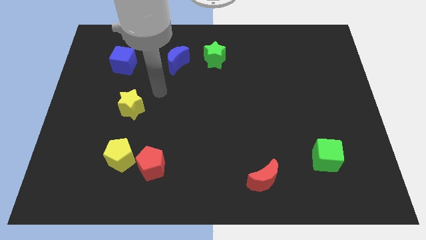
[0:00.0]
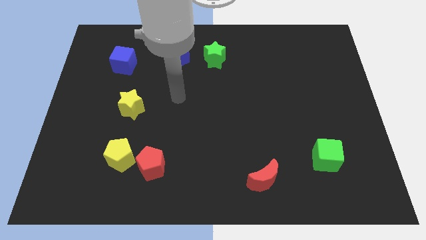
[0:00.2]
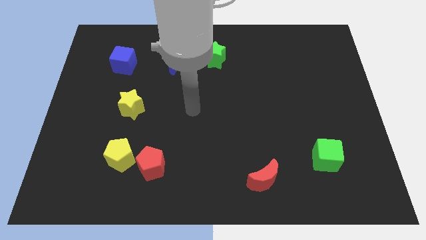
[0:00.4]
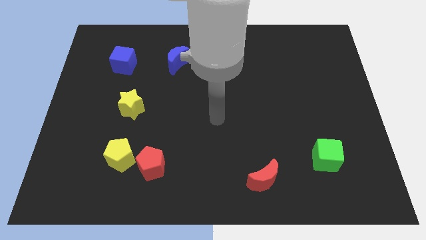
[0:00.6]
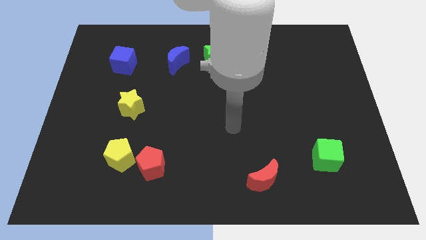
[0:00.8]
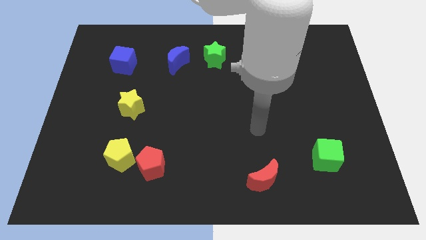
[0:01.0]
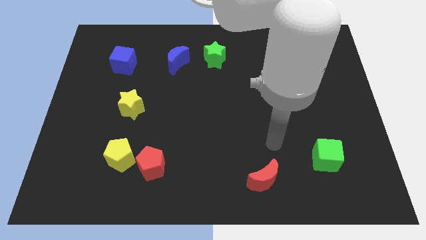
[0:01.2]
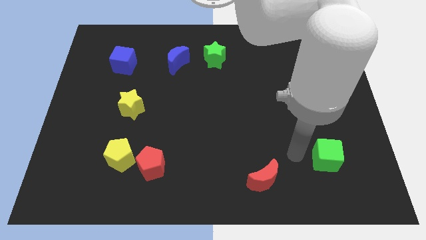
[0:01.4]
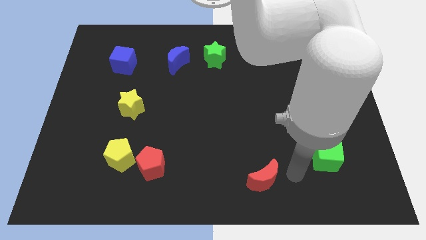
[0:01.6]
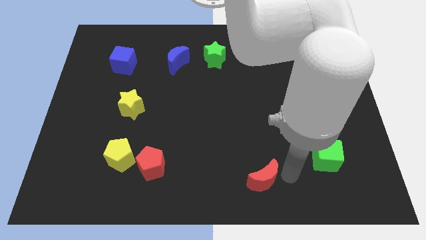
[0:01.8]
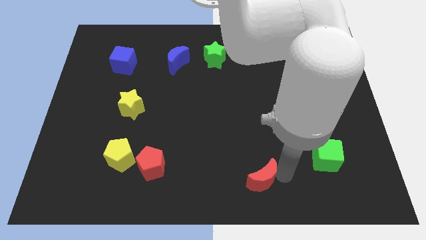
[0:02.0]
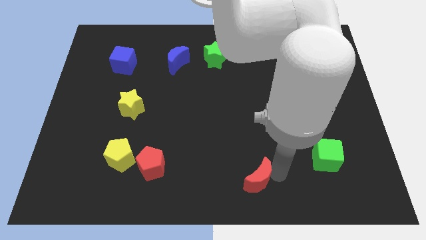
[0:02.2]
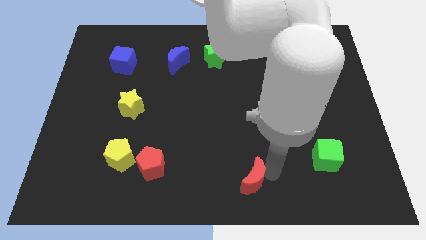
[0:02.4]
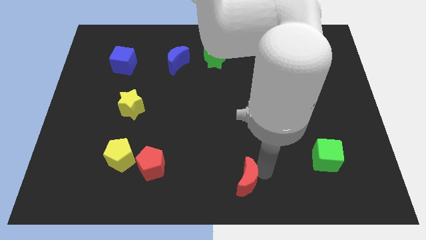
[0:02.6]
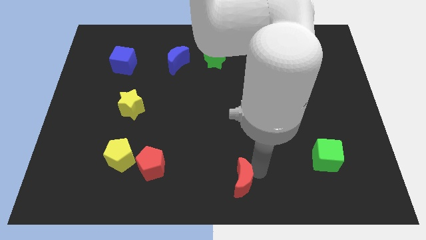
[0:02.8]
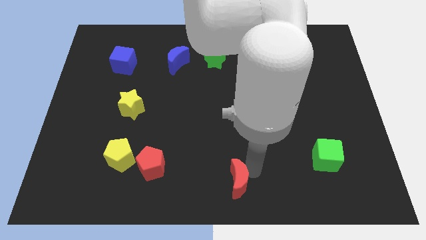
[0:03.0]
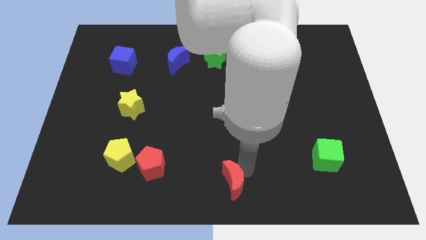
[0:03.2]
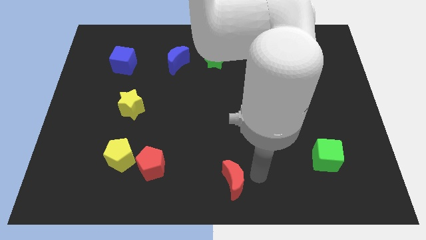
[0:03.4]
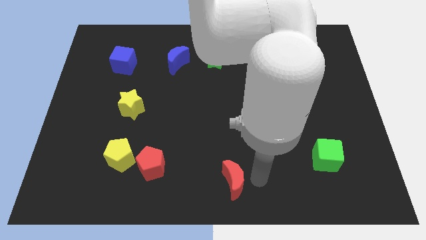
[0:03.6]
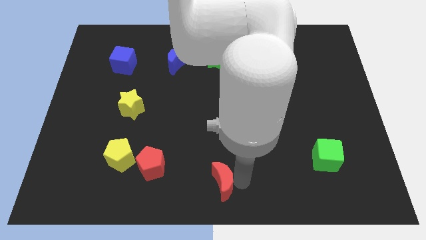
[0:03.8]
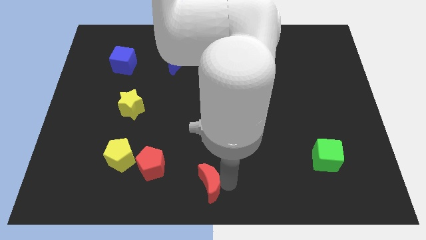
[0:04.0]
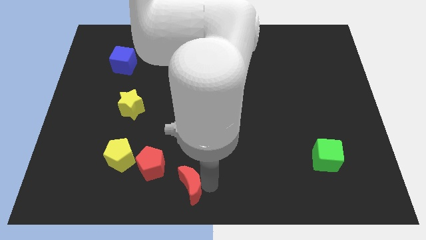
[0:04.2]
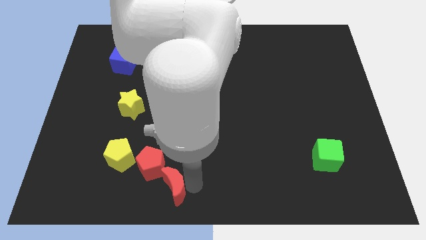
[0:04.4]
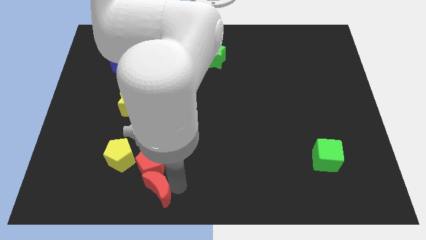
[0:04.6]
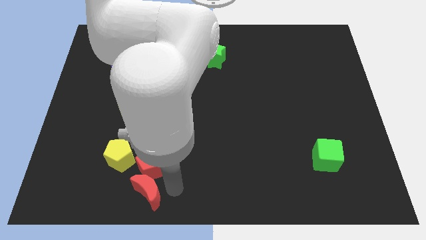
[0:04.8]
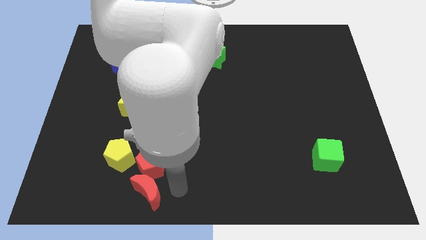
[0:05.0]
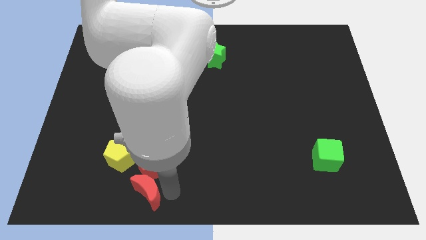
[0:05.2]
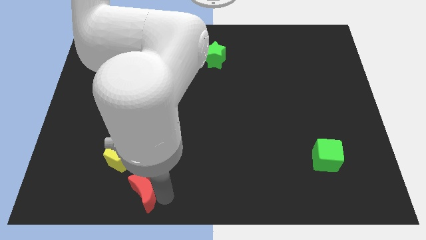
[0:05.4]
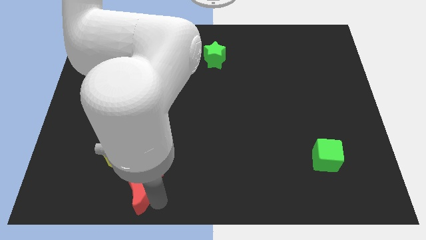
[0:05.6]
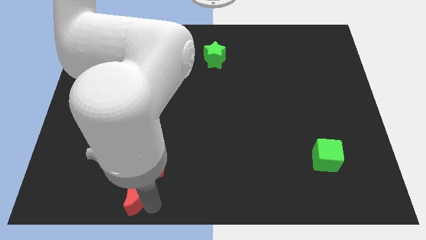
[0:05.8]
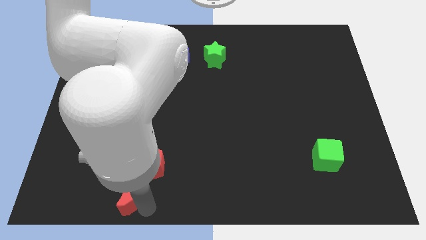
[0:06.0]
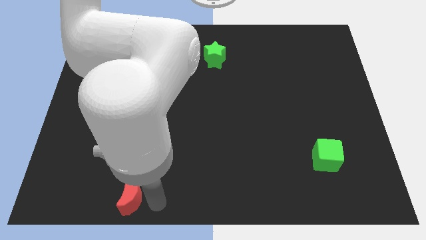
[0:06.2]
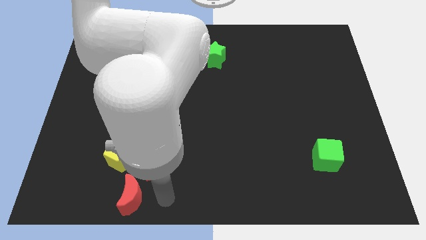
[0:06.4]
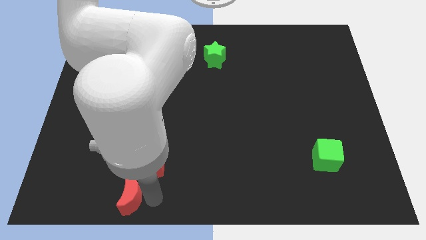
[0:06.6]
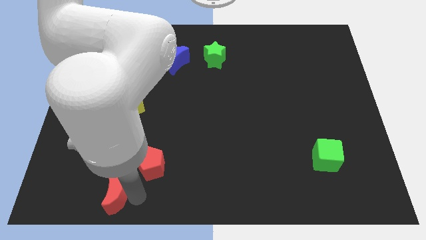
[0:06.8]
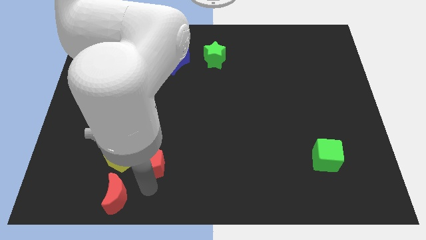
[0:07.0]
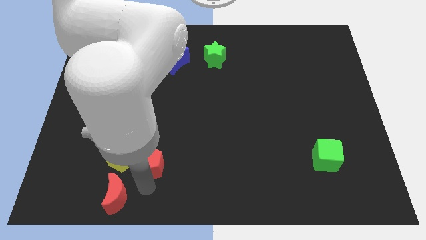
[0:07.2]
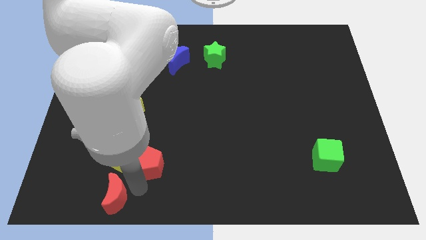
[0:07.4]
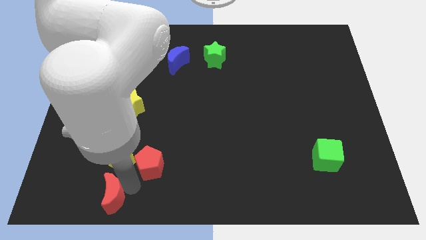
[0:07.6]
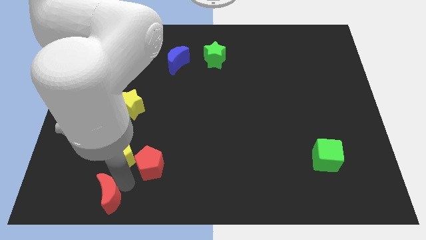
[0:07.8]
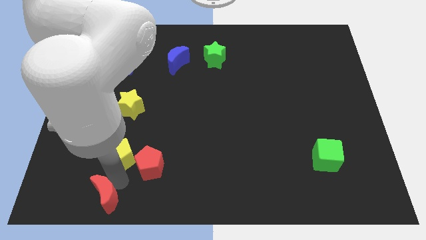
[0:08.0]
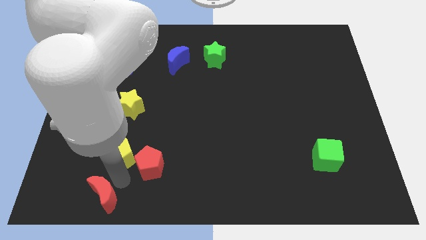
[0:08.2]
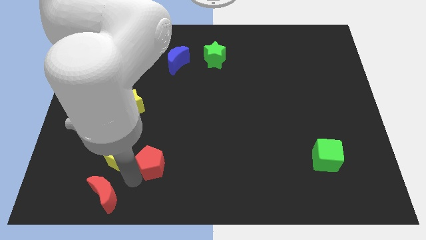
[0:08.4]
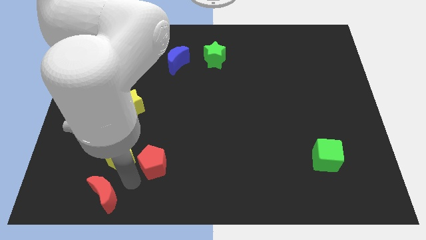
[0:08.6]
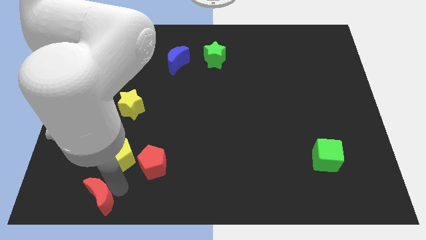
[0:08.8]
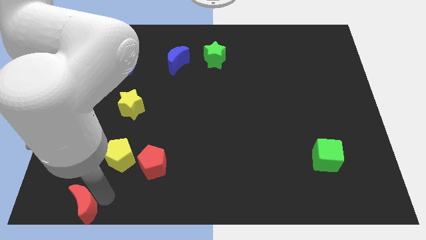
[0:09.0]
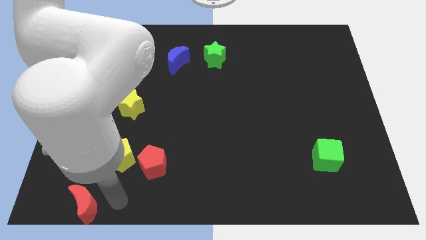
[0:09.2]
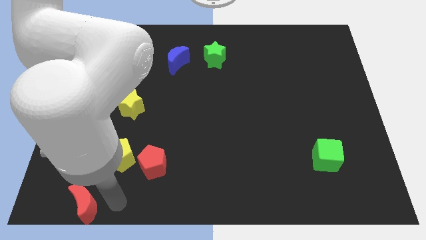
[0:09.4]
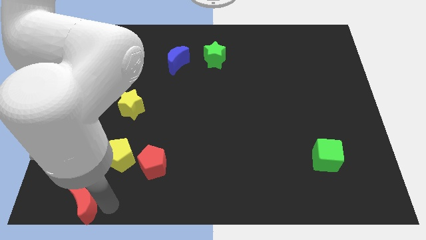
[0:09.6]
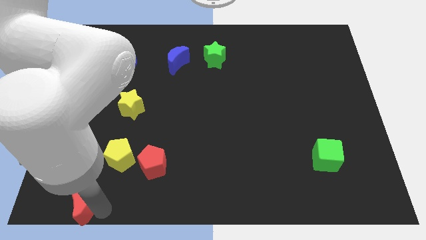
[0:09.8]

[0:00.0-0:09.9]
slide the red moon to the bottom left

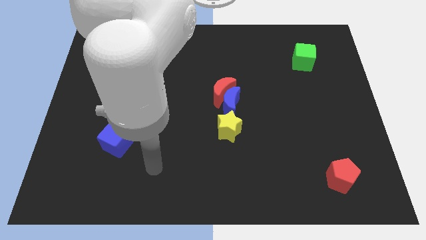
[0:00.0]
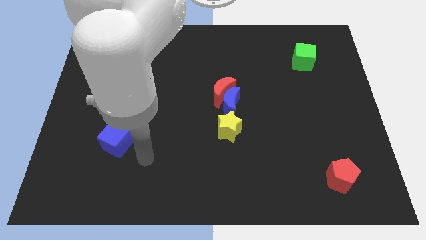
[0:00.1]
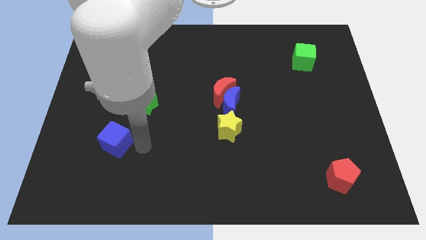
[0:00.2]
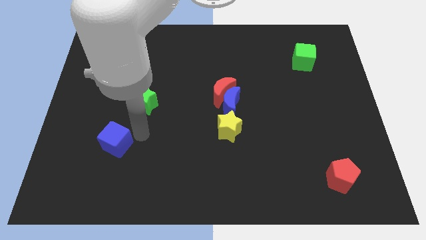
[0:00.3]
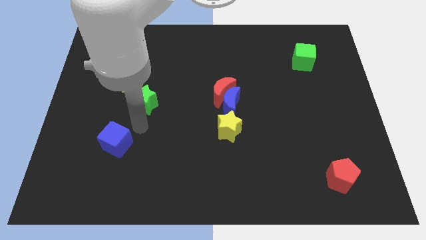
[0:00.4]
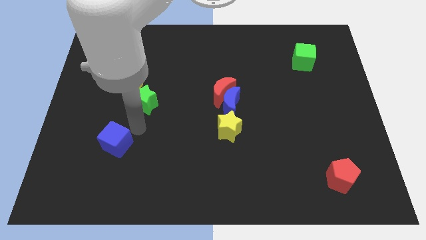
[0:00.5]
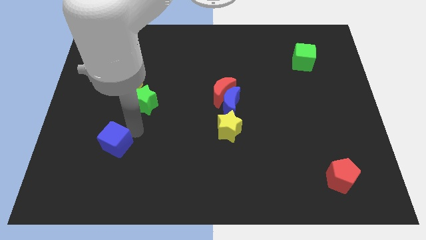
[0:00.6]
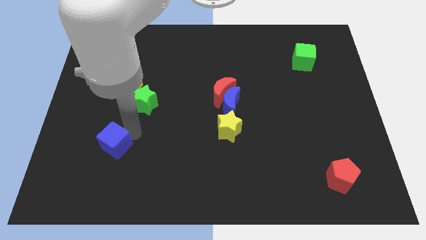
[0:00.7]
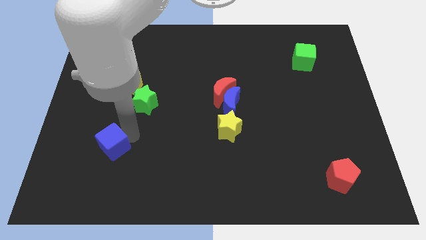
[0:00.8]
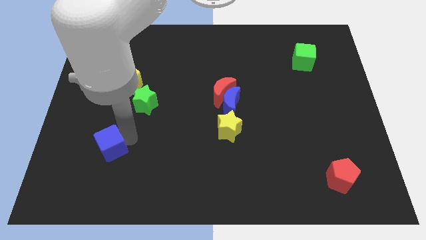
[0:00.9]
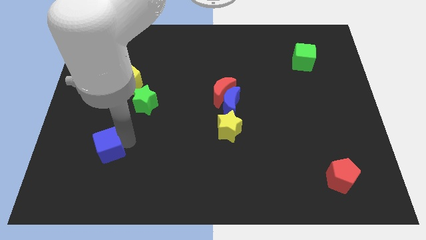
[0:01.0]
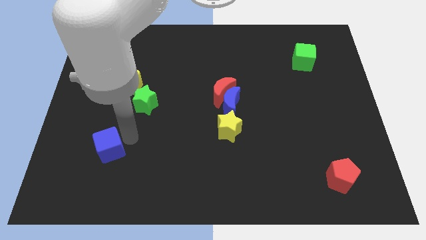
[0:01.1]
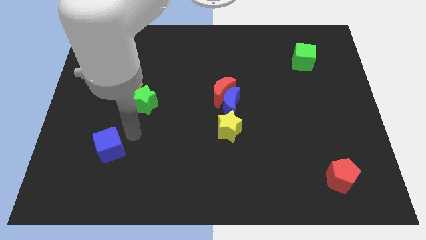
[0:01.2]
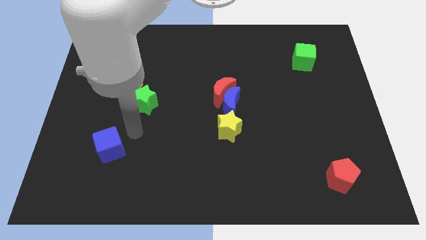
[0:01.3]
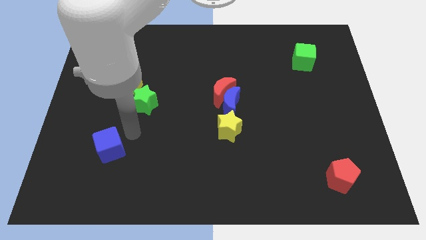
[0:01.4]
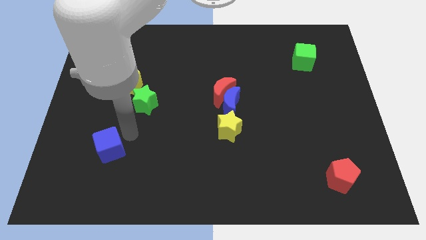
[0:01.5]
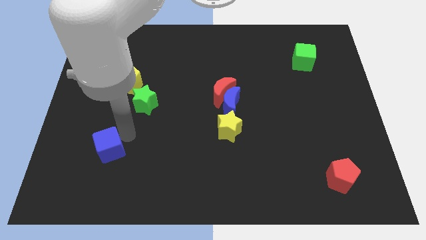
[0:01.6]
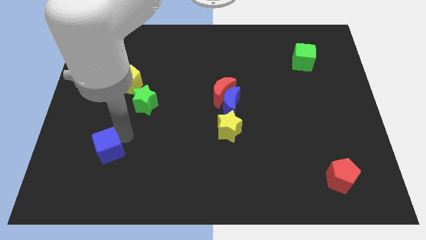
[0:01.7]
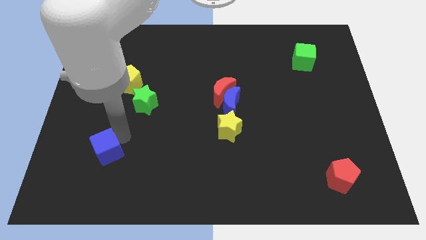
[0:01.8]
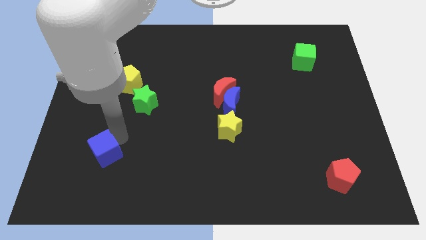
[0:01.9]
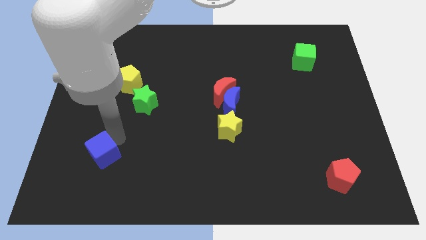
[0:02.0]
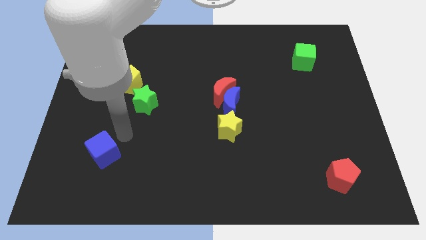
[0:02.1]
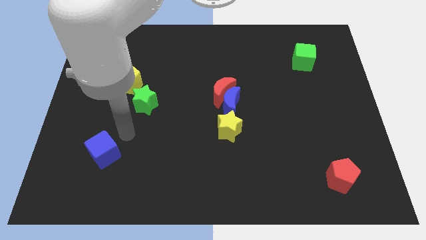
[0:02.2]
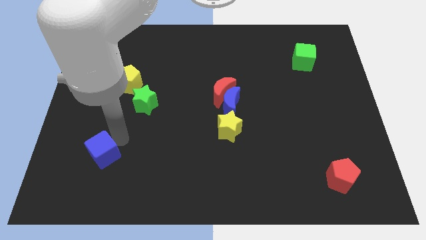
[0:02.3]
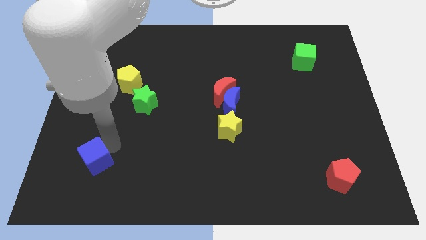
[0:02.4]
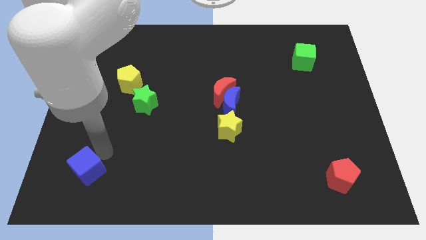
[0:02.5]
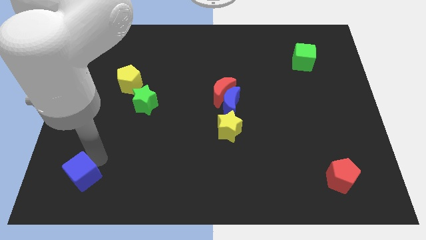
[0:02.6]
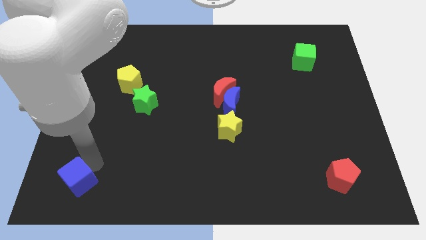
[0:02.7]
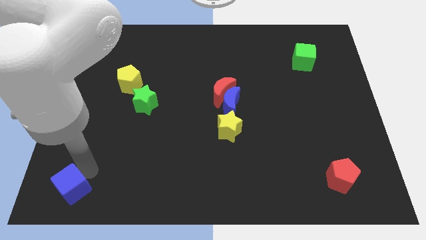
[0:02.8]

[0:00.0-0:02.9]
move the blue cube to the bottom left
